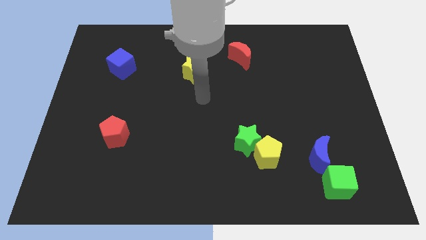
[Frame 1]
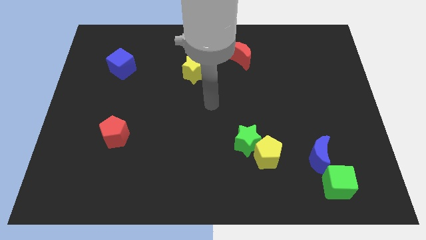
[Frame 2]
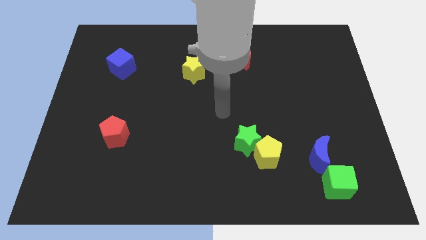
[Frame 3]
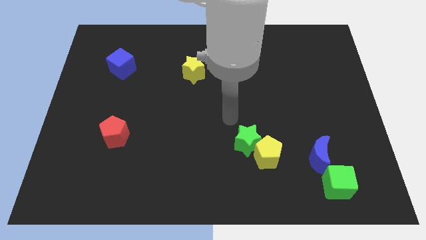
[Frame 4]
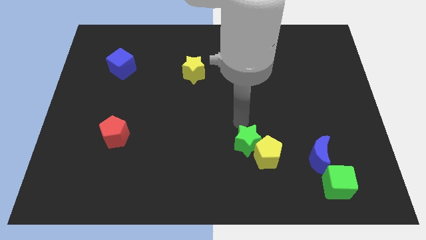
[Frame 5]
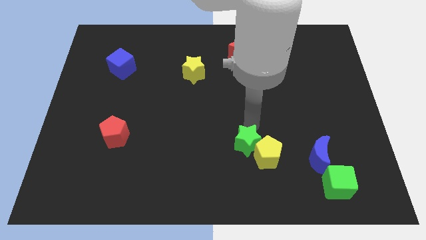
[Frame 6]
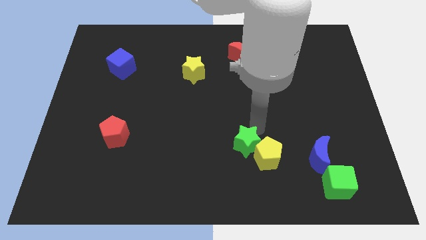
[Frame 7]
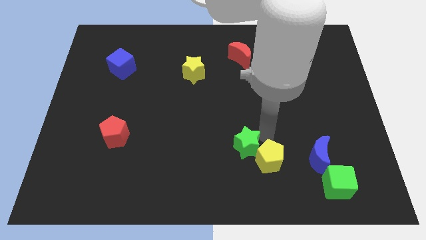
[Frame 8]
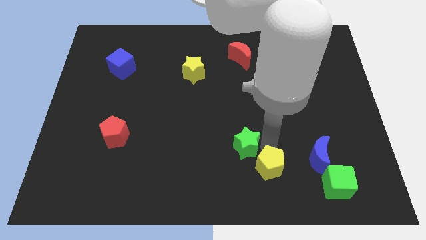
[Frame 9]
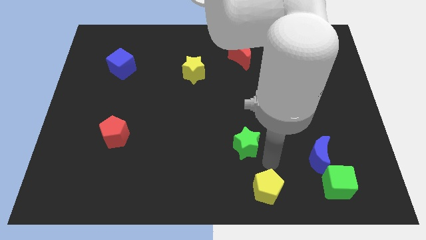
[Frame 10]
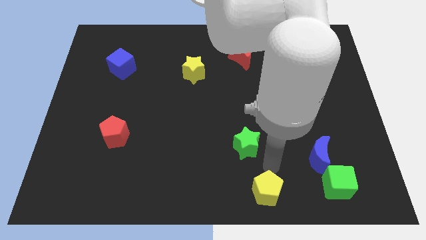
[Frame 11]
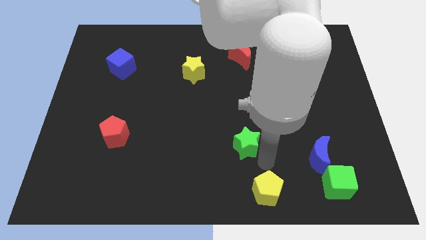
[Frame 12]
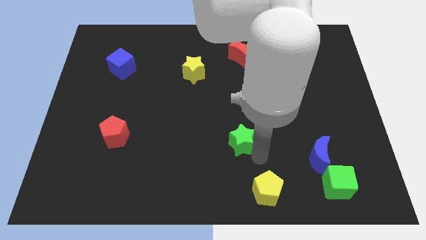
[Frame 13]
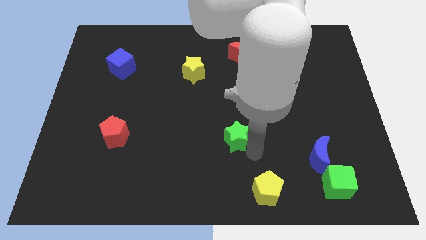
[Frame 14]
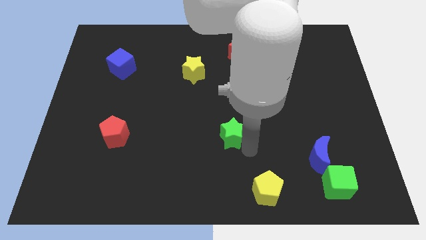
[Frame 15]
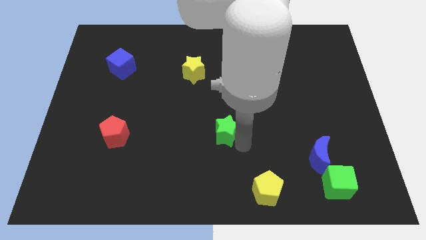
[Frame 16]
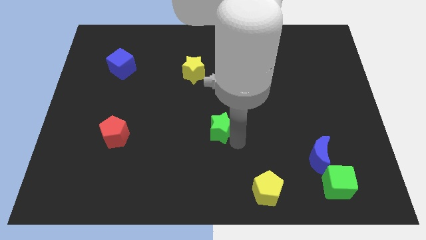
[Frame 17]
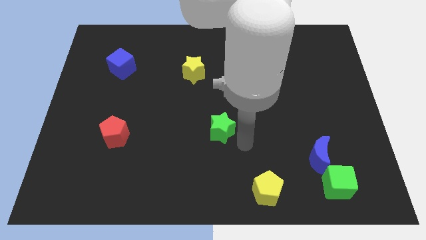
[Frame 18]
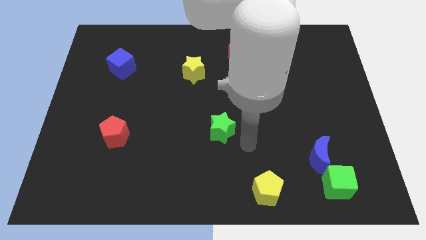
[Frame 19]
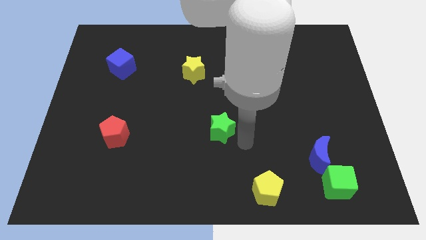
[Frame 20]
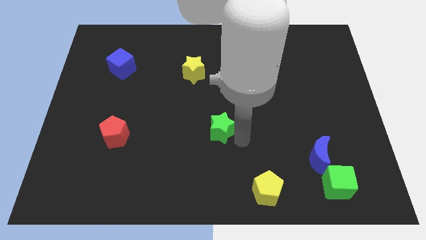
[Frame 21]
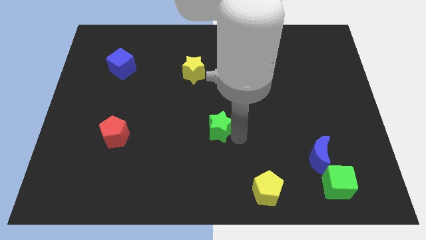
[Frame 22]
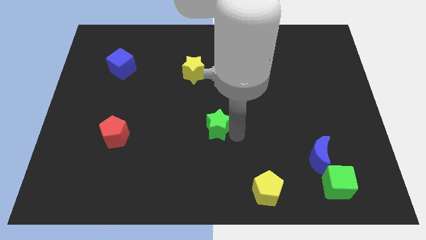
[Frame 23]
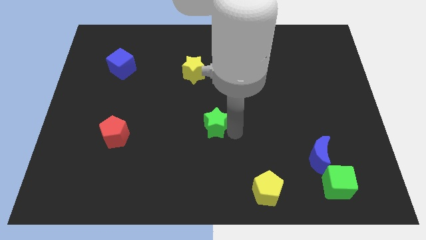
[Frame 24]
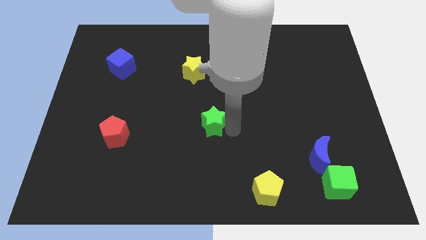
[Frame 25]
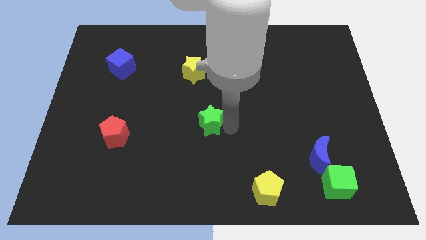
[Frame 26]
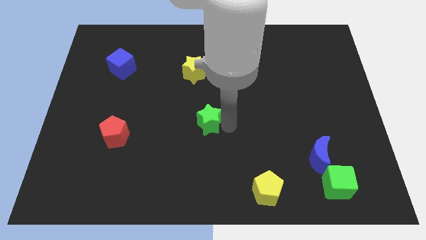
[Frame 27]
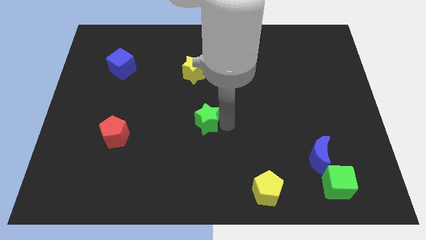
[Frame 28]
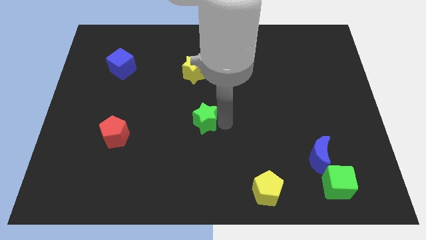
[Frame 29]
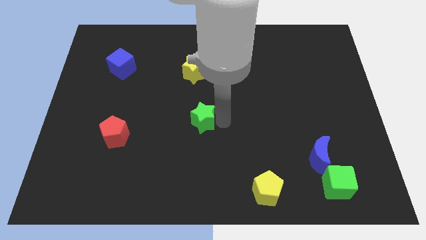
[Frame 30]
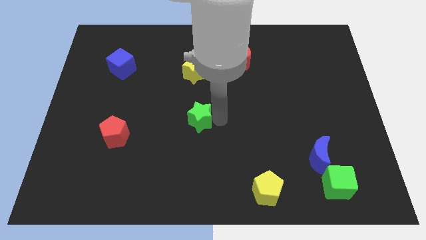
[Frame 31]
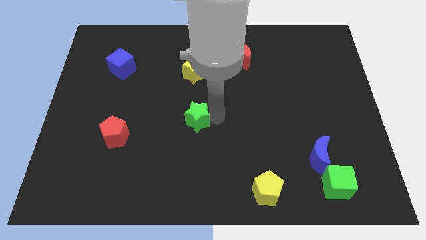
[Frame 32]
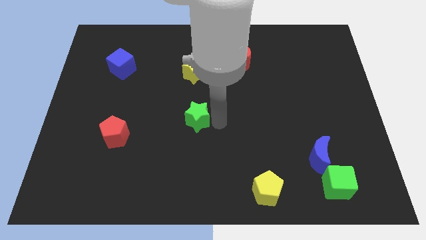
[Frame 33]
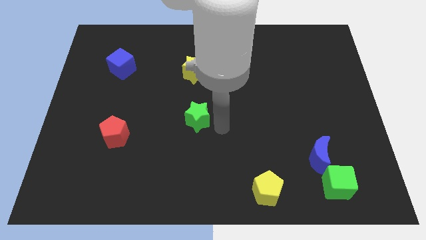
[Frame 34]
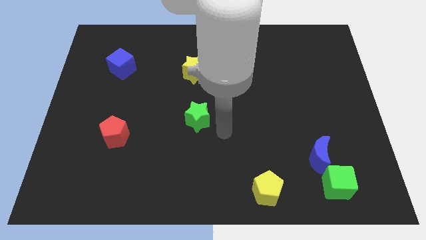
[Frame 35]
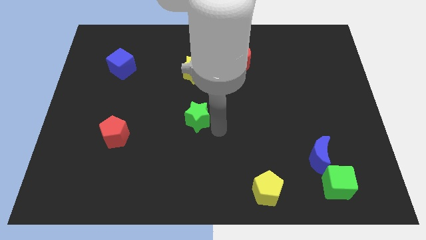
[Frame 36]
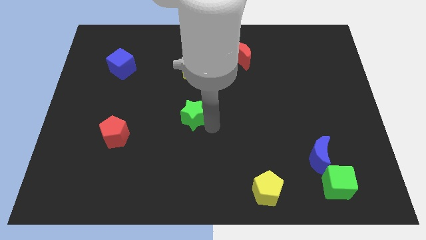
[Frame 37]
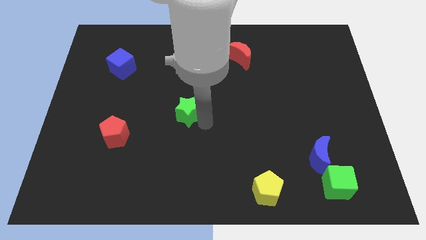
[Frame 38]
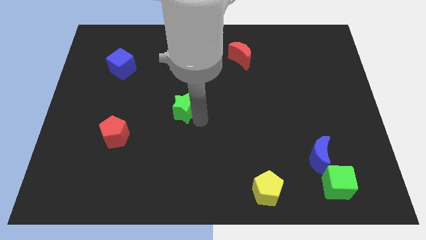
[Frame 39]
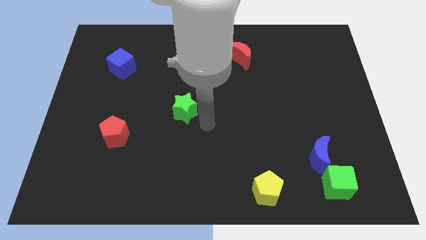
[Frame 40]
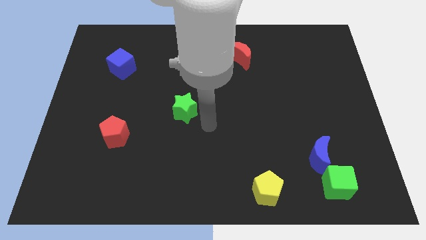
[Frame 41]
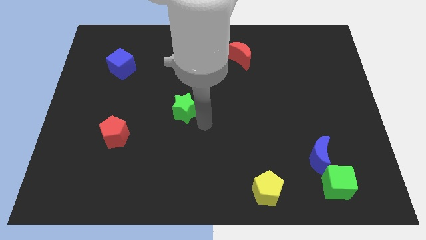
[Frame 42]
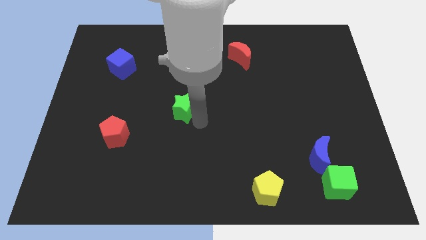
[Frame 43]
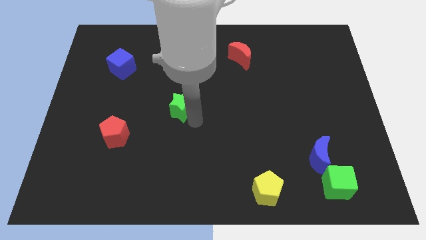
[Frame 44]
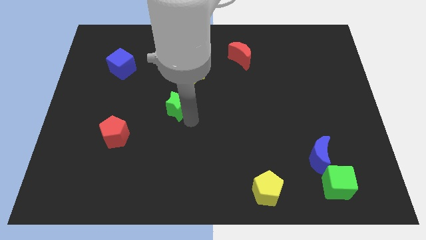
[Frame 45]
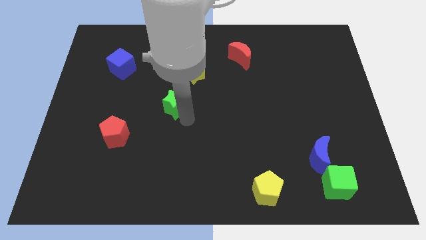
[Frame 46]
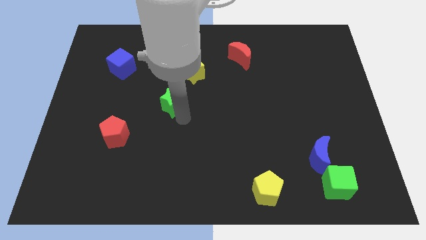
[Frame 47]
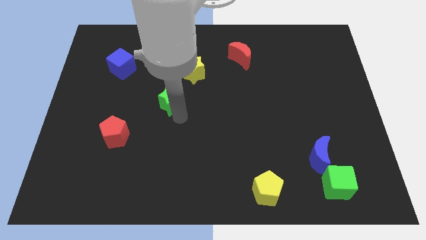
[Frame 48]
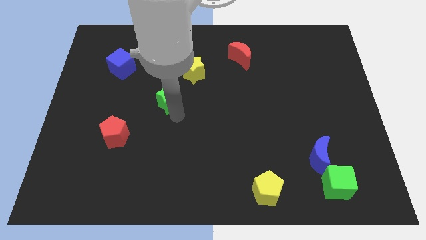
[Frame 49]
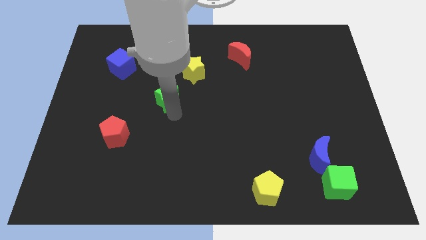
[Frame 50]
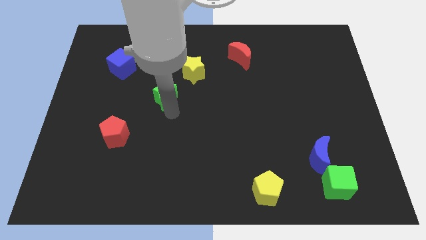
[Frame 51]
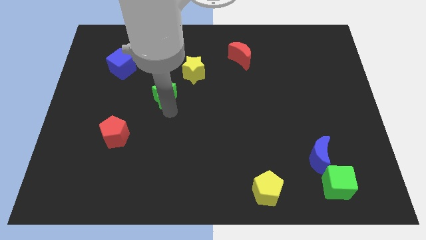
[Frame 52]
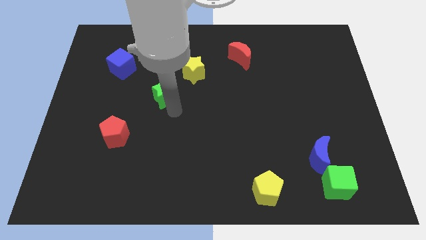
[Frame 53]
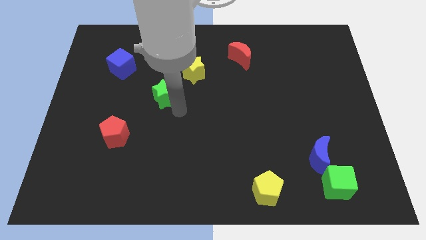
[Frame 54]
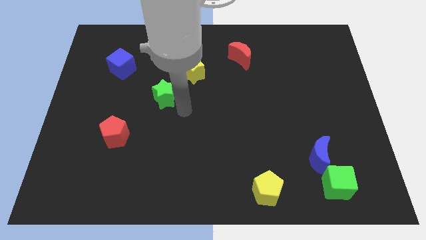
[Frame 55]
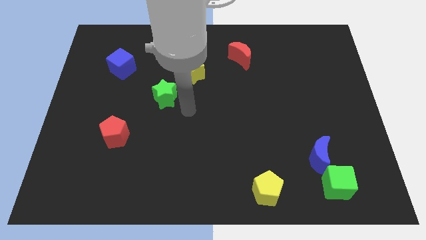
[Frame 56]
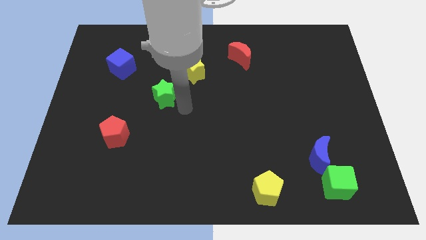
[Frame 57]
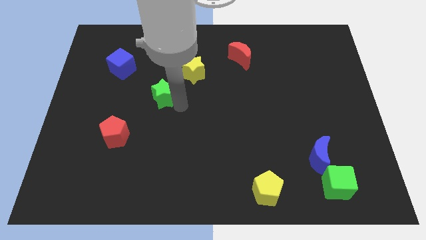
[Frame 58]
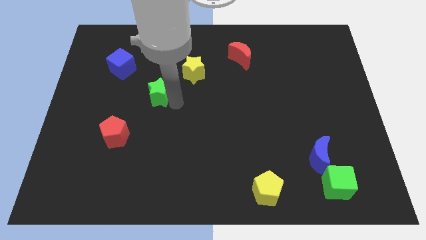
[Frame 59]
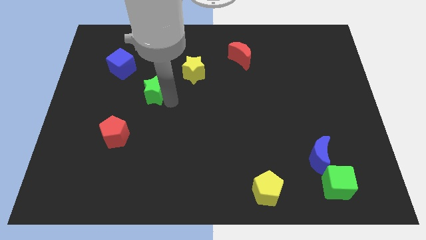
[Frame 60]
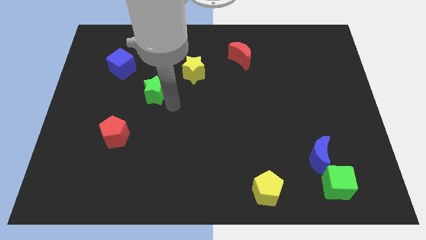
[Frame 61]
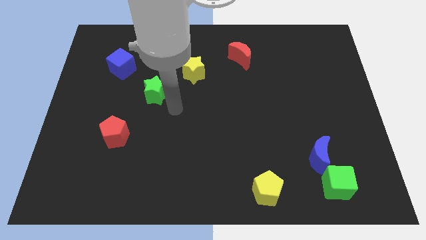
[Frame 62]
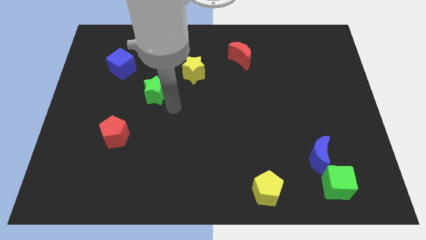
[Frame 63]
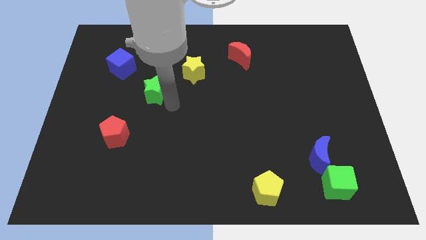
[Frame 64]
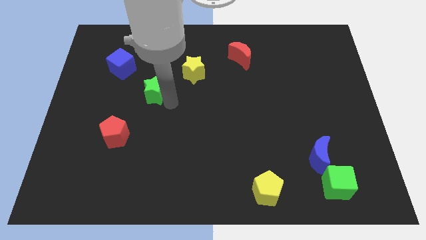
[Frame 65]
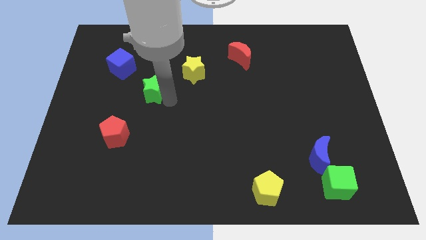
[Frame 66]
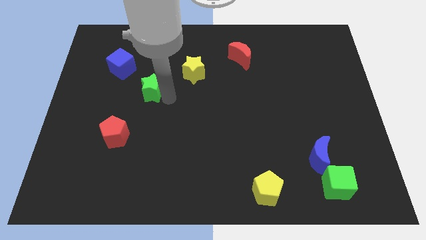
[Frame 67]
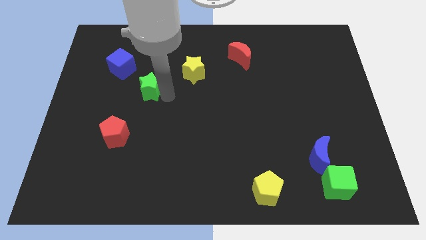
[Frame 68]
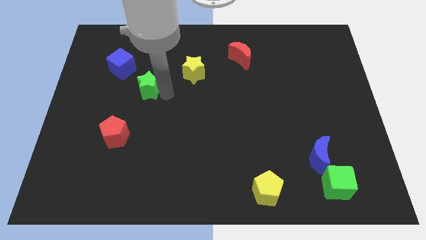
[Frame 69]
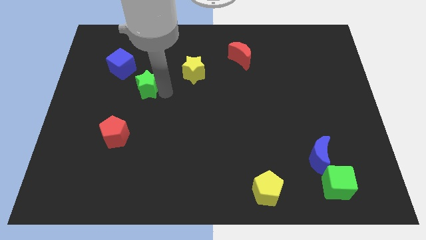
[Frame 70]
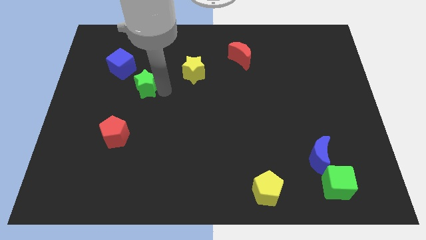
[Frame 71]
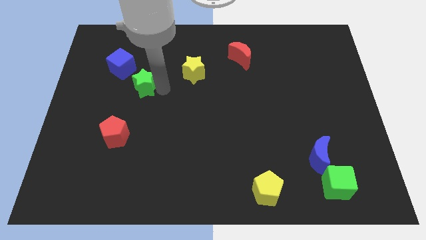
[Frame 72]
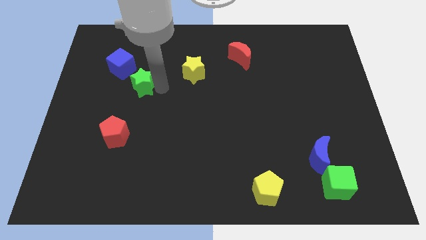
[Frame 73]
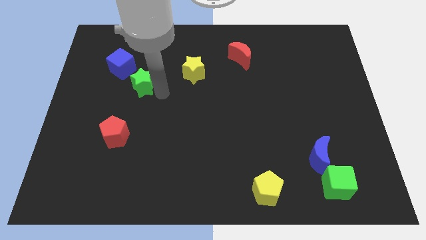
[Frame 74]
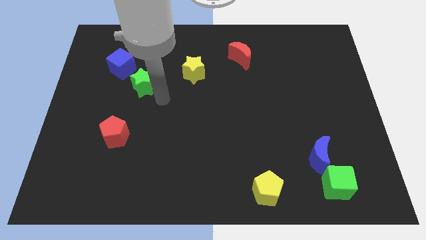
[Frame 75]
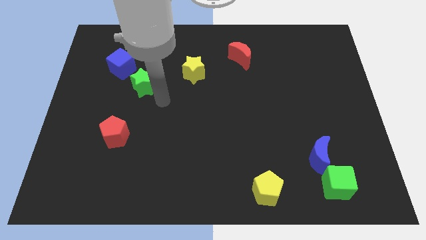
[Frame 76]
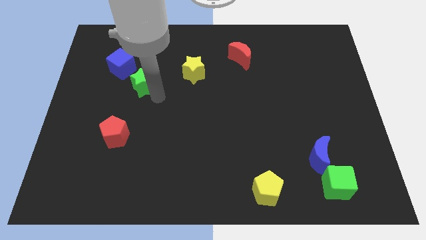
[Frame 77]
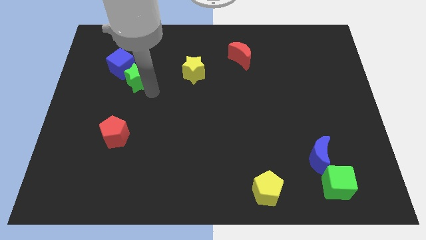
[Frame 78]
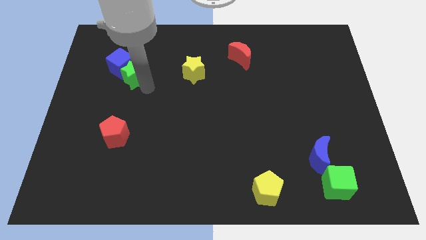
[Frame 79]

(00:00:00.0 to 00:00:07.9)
slide the green star to the blue cube
